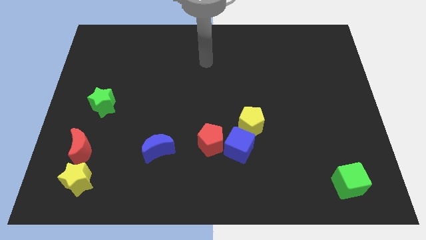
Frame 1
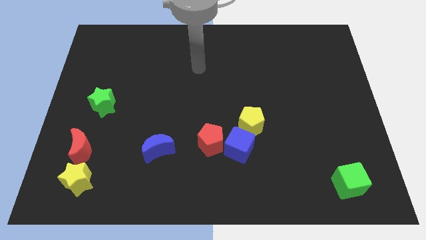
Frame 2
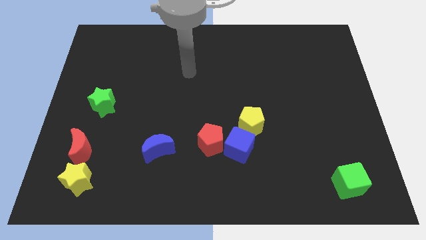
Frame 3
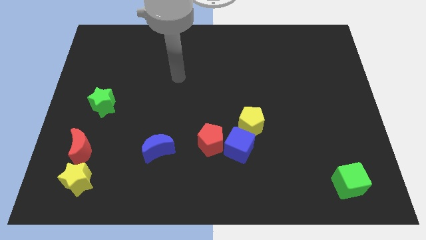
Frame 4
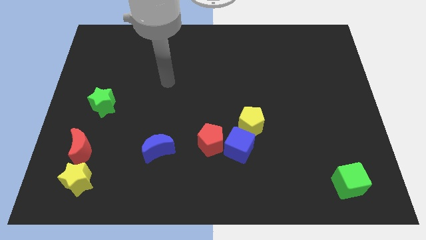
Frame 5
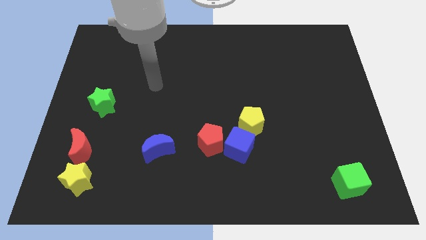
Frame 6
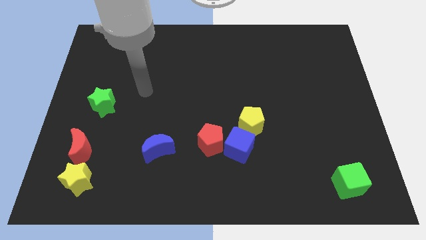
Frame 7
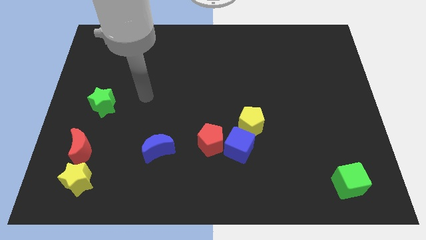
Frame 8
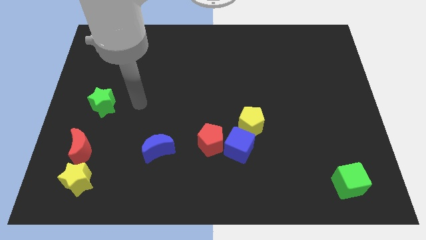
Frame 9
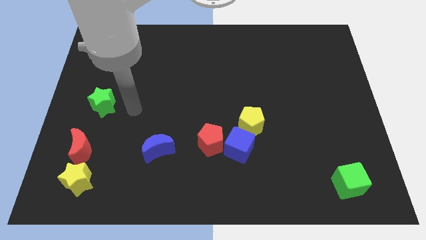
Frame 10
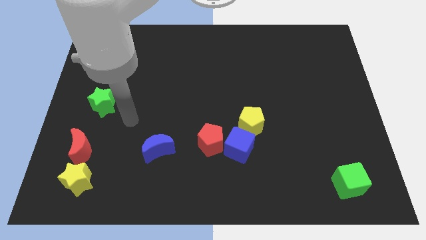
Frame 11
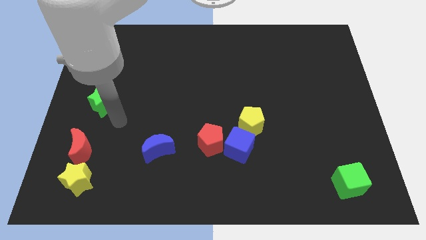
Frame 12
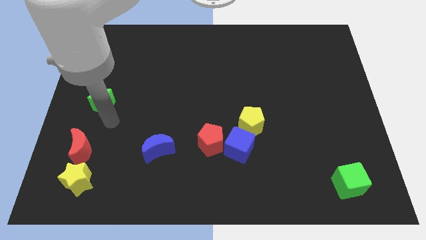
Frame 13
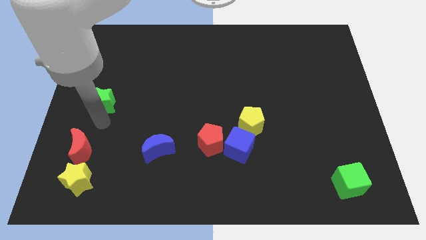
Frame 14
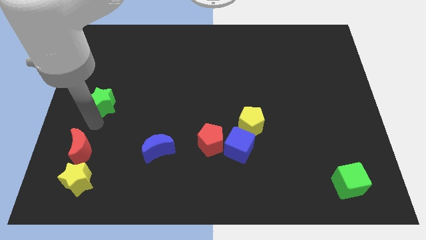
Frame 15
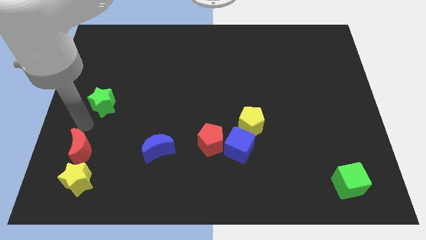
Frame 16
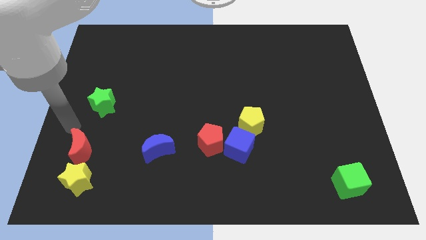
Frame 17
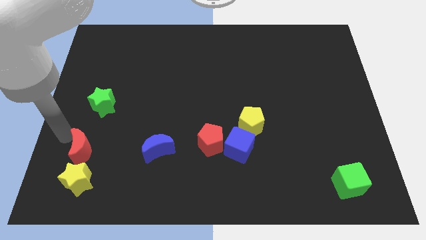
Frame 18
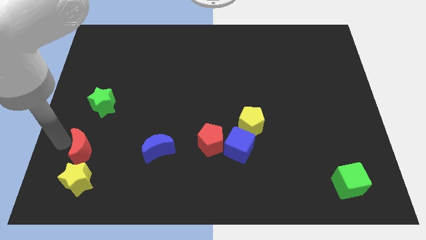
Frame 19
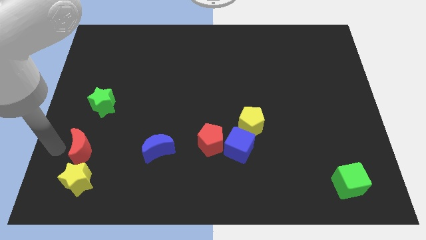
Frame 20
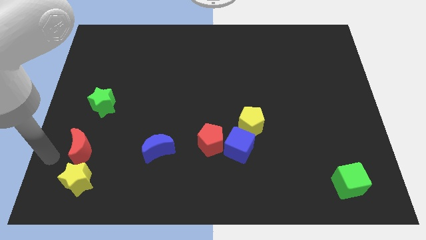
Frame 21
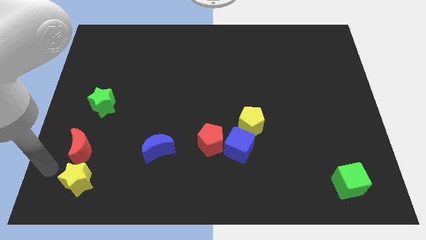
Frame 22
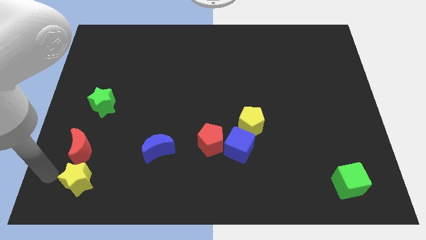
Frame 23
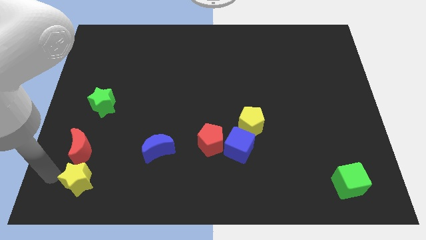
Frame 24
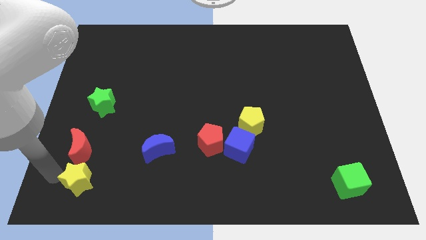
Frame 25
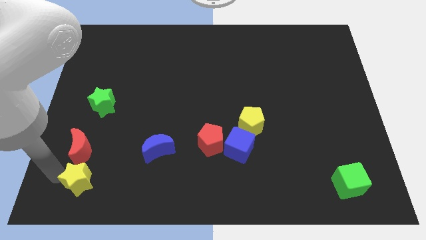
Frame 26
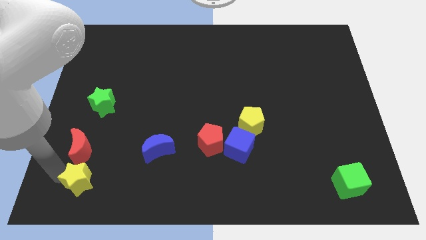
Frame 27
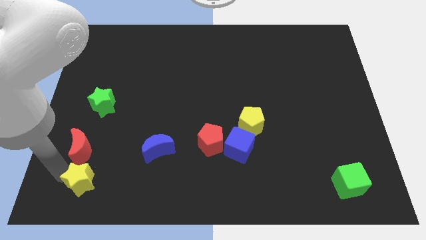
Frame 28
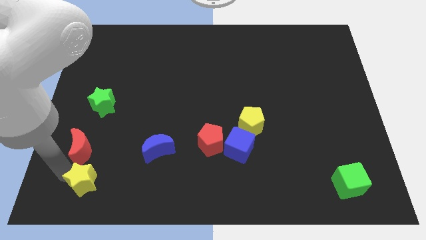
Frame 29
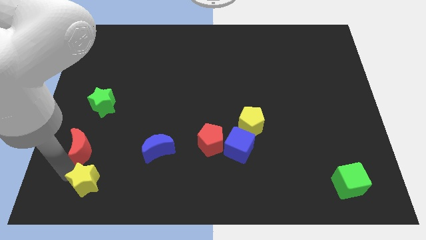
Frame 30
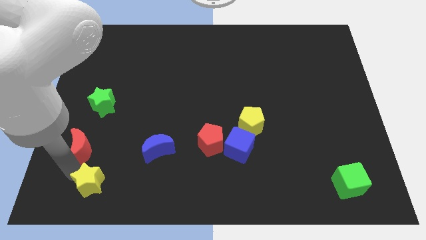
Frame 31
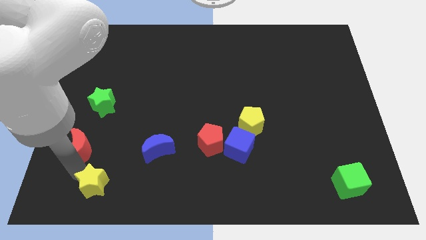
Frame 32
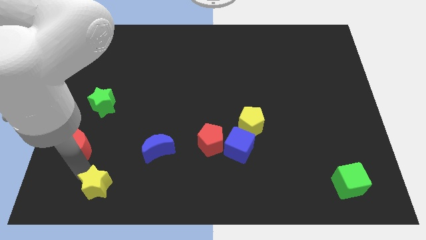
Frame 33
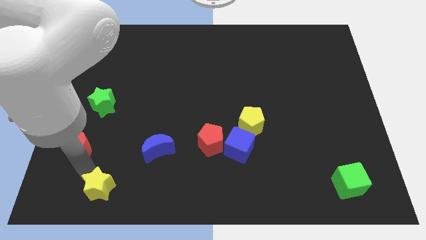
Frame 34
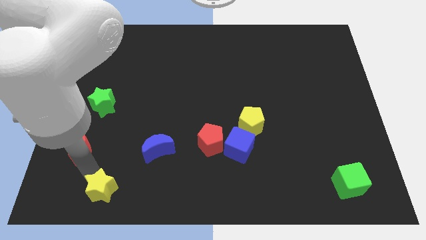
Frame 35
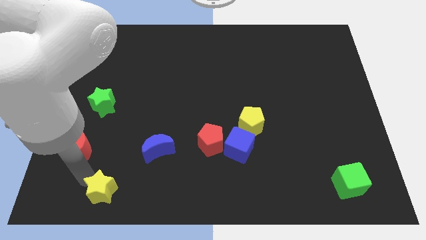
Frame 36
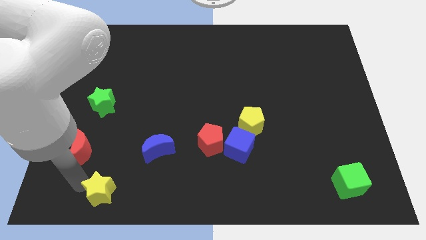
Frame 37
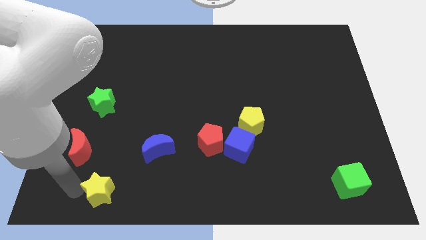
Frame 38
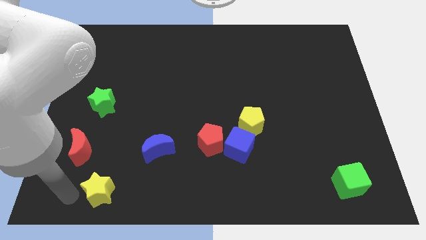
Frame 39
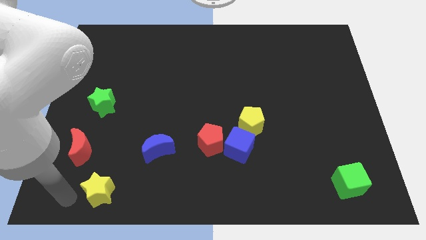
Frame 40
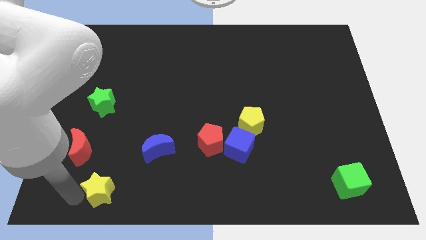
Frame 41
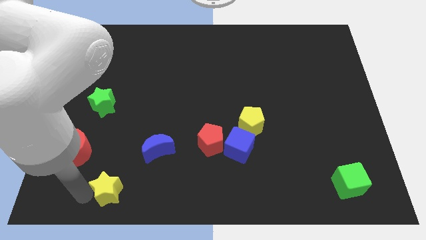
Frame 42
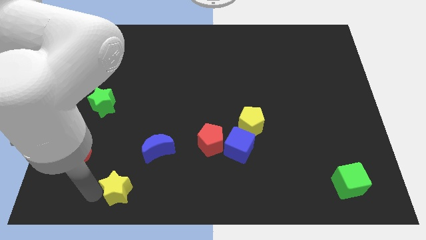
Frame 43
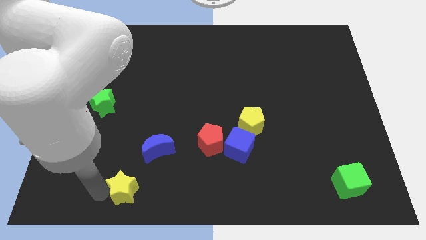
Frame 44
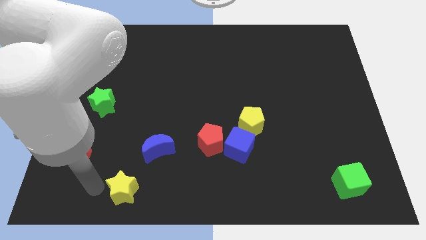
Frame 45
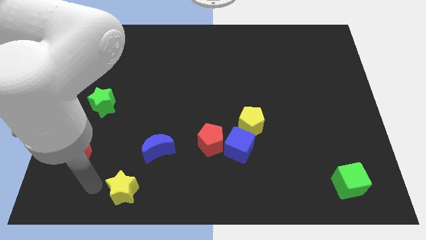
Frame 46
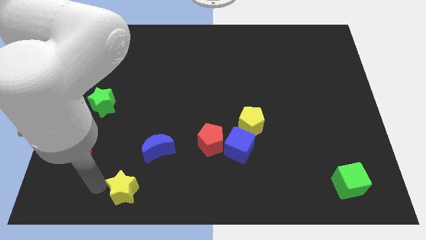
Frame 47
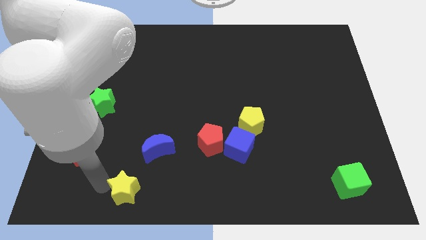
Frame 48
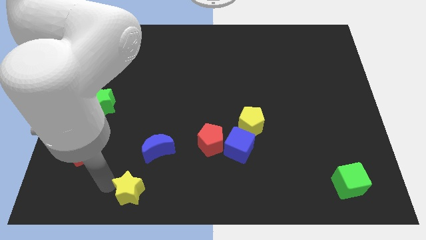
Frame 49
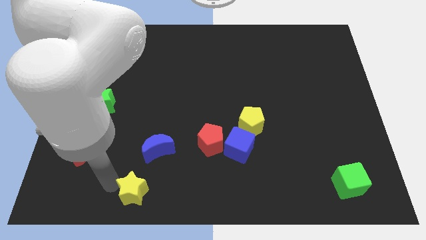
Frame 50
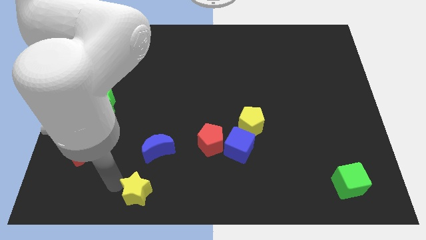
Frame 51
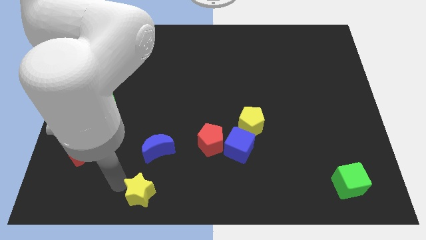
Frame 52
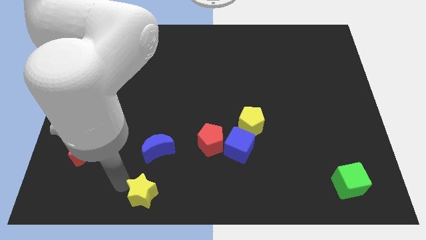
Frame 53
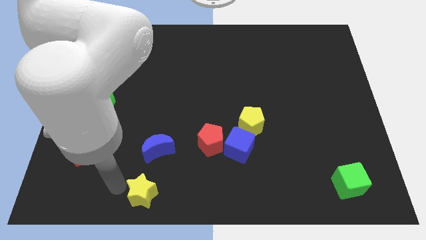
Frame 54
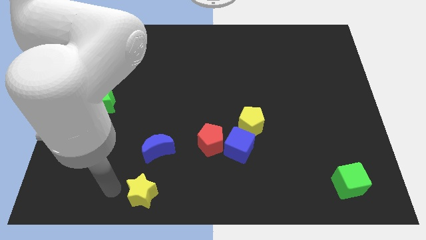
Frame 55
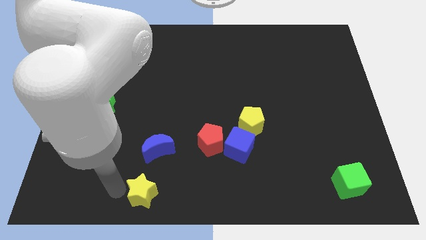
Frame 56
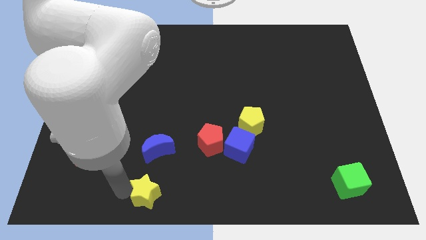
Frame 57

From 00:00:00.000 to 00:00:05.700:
put the yellow star to the bottom

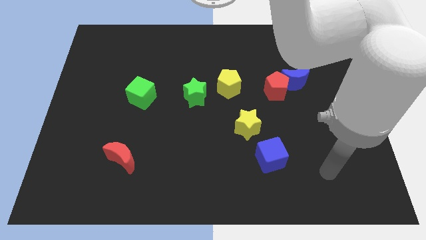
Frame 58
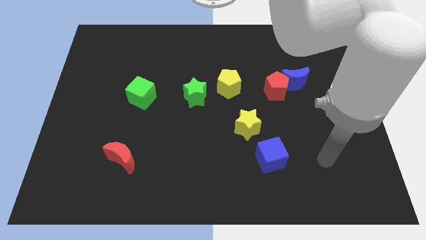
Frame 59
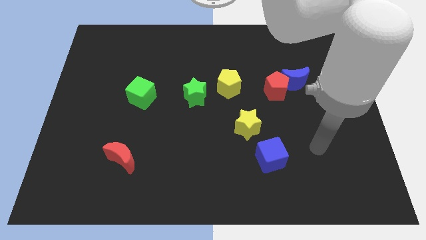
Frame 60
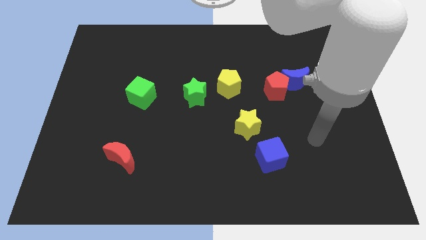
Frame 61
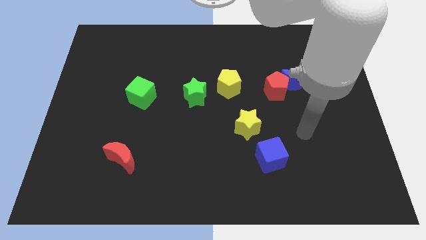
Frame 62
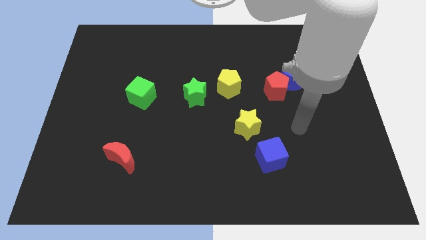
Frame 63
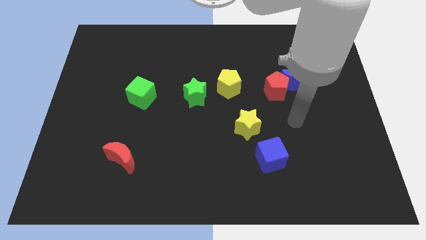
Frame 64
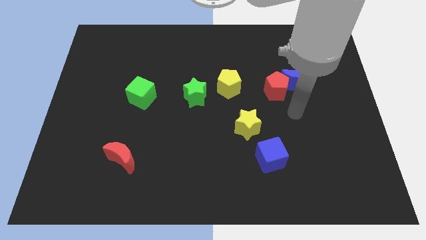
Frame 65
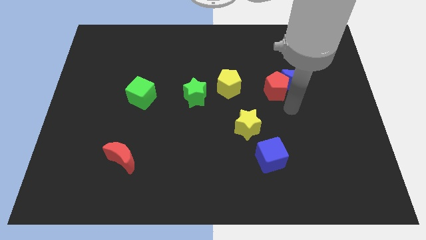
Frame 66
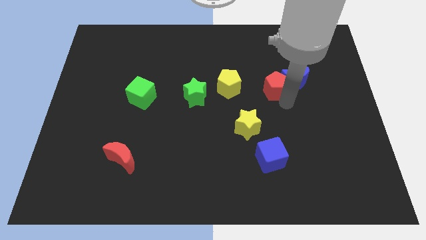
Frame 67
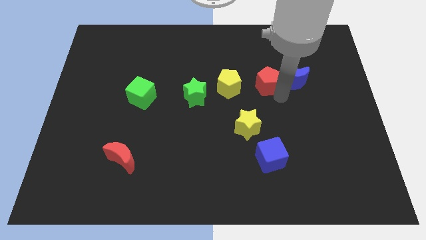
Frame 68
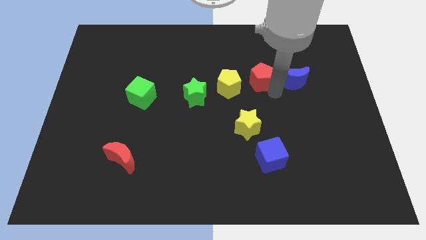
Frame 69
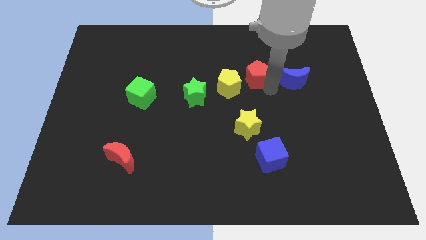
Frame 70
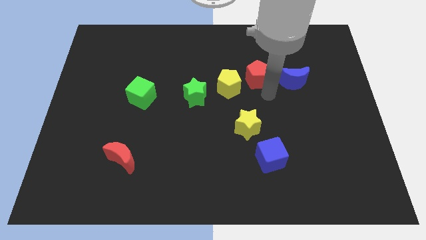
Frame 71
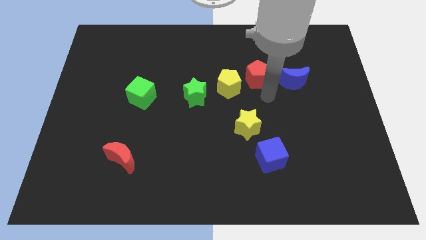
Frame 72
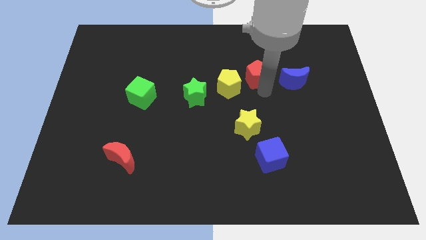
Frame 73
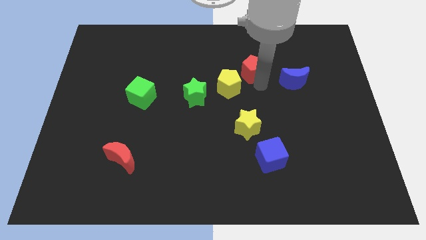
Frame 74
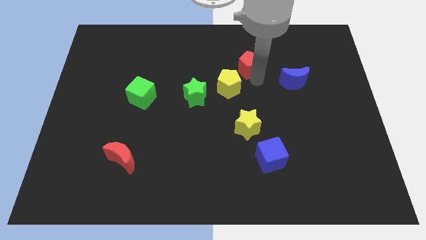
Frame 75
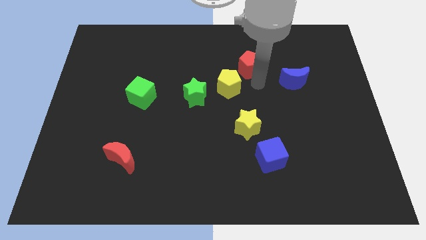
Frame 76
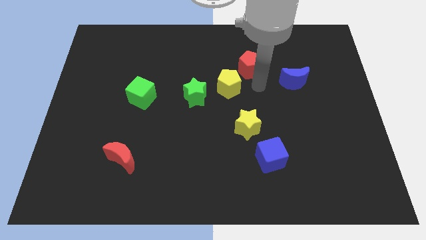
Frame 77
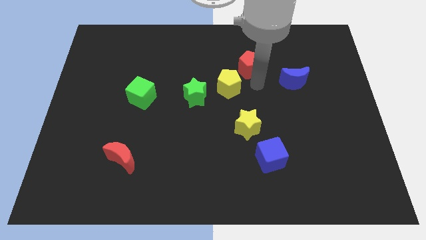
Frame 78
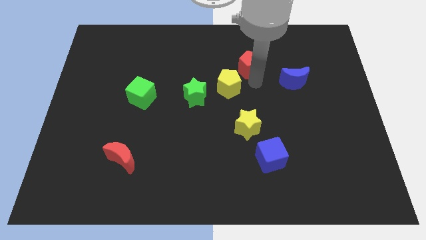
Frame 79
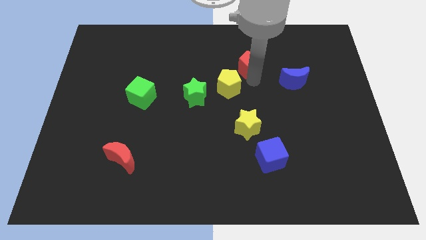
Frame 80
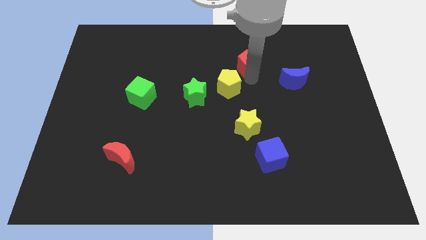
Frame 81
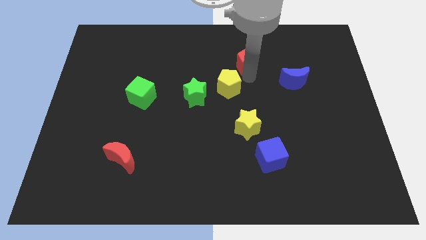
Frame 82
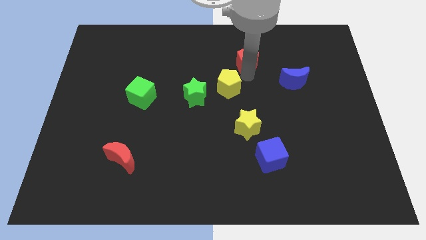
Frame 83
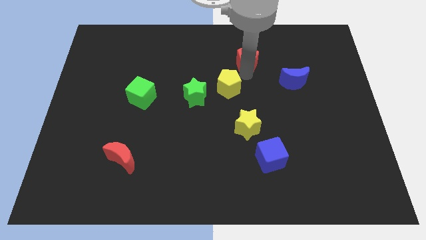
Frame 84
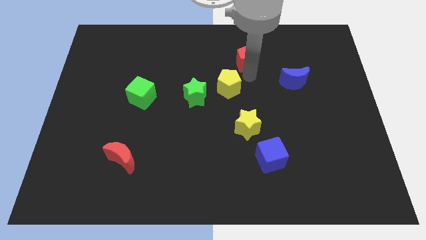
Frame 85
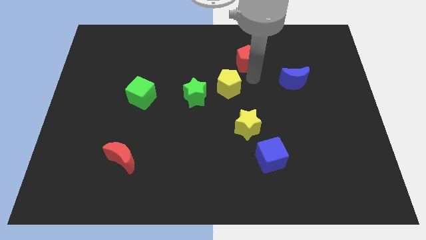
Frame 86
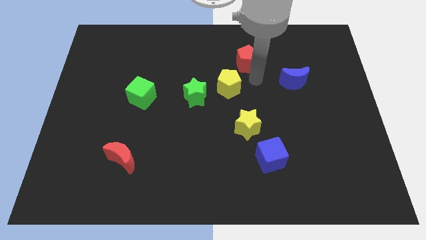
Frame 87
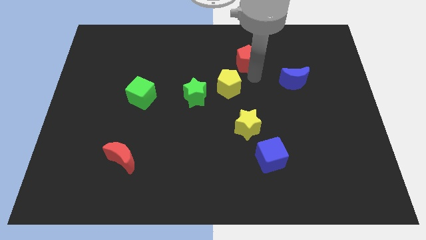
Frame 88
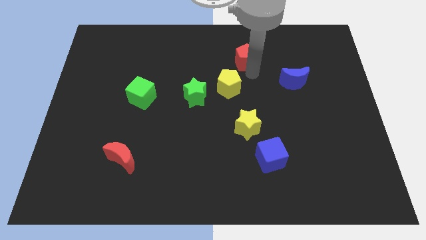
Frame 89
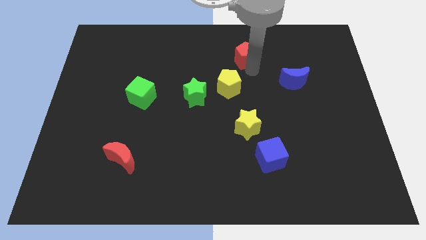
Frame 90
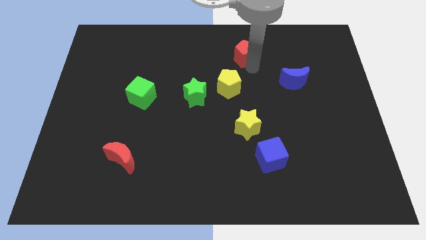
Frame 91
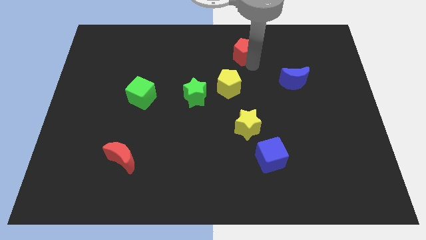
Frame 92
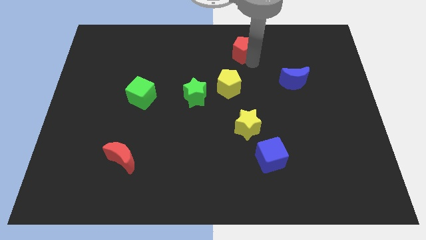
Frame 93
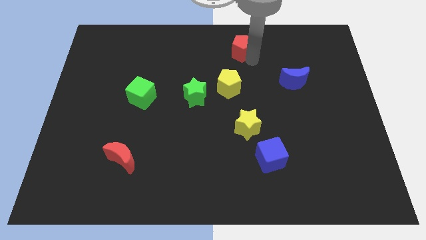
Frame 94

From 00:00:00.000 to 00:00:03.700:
put the red pentagon to the towards your base
